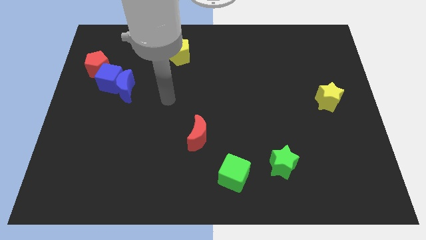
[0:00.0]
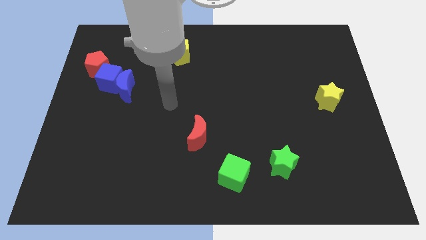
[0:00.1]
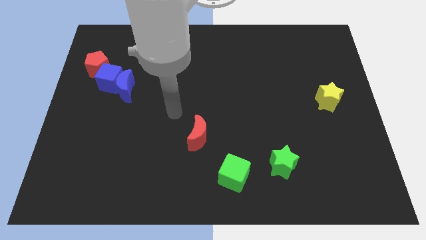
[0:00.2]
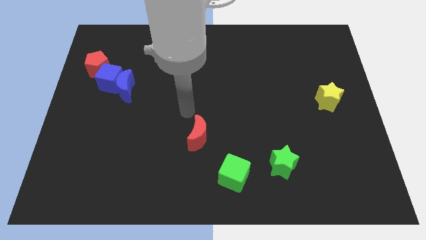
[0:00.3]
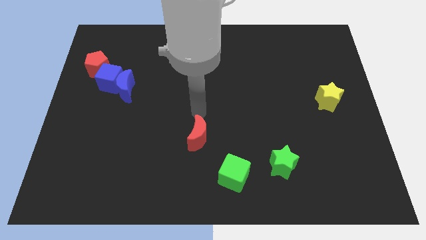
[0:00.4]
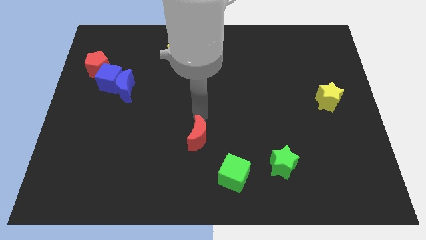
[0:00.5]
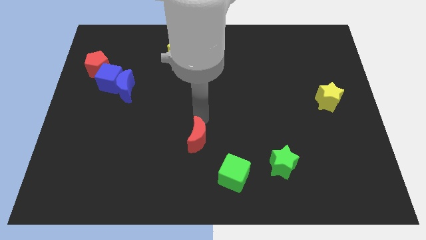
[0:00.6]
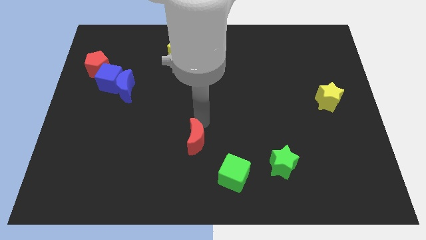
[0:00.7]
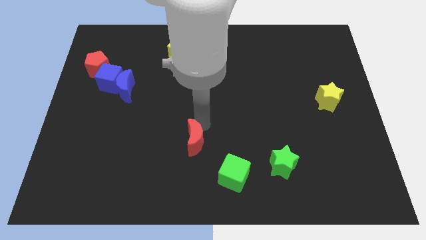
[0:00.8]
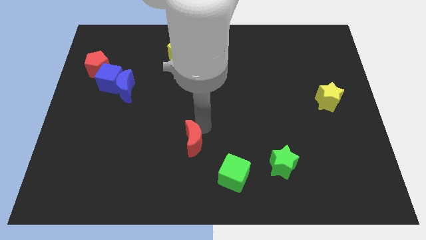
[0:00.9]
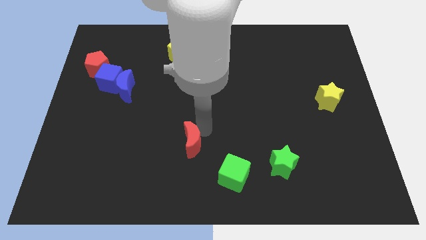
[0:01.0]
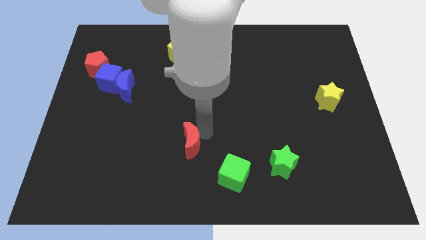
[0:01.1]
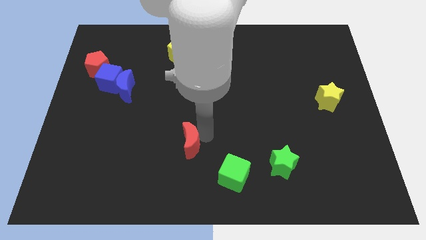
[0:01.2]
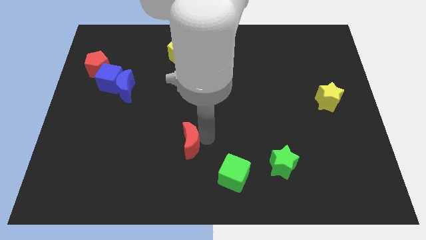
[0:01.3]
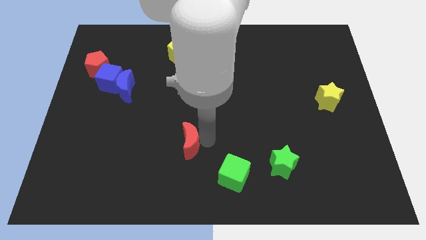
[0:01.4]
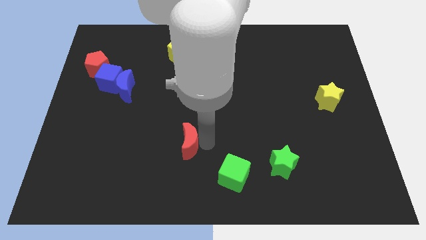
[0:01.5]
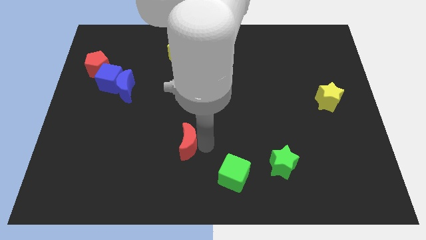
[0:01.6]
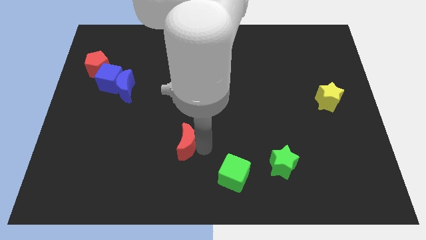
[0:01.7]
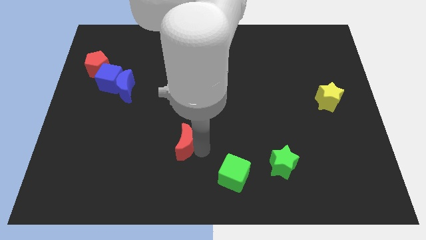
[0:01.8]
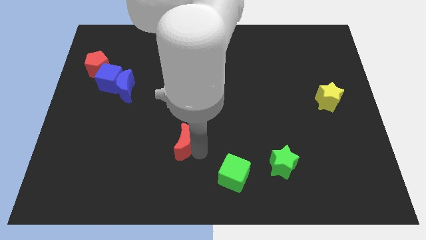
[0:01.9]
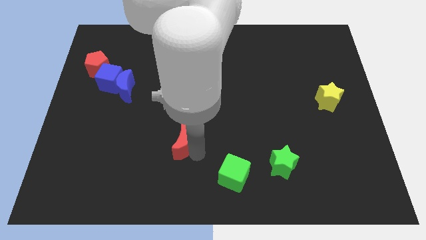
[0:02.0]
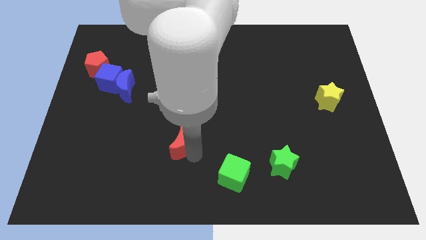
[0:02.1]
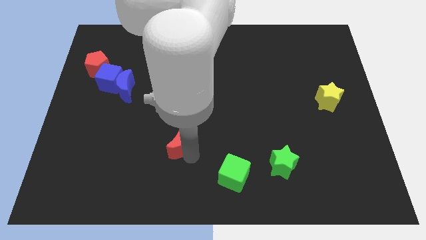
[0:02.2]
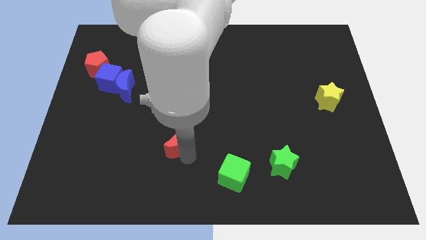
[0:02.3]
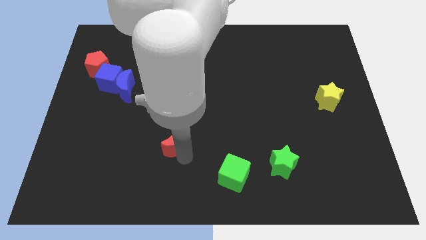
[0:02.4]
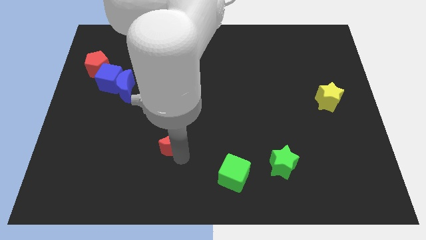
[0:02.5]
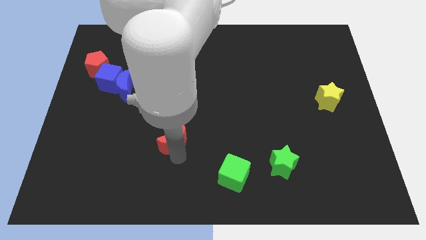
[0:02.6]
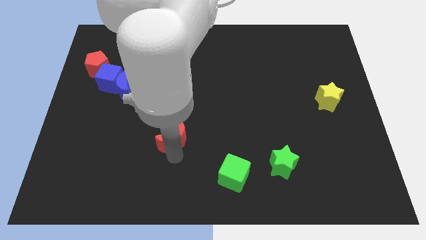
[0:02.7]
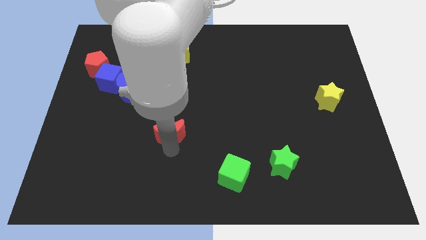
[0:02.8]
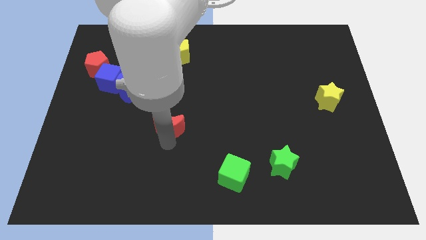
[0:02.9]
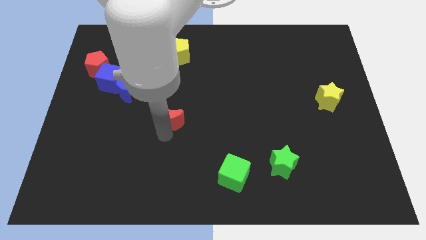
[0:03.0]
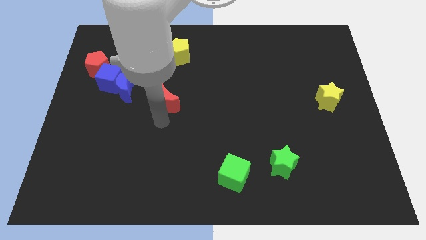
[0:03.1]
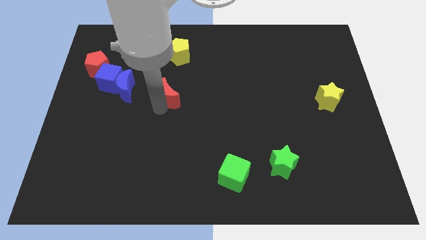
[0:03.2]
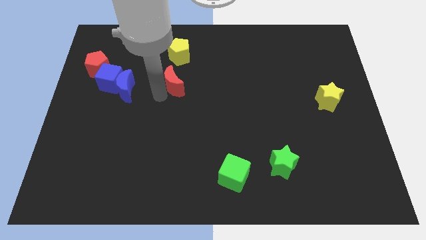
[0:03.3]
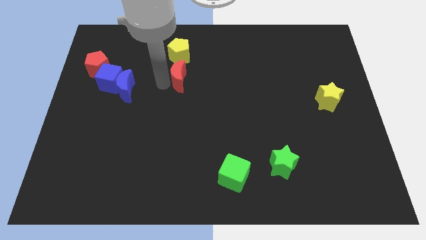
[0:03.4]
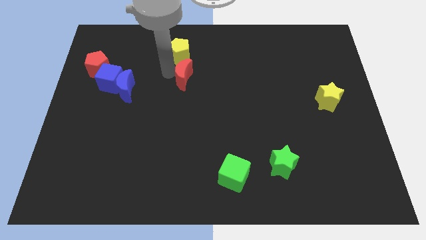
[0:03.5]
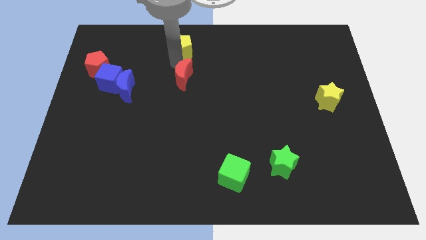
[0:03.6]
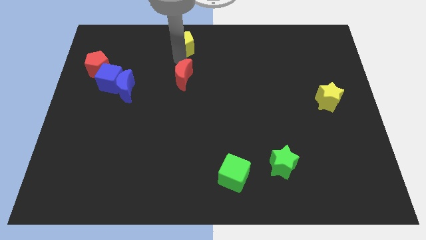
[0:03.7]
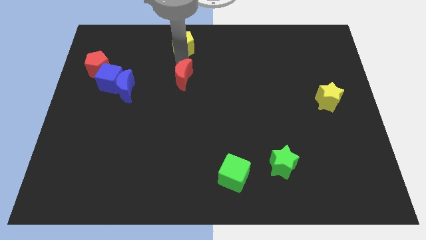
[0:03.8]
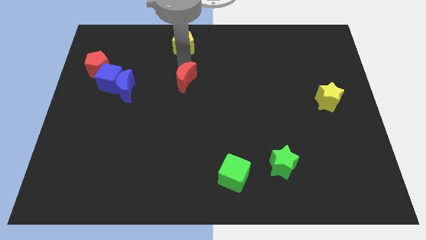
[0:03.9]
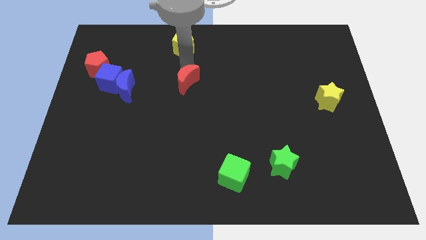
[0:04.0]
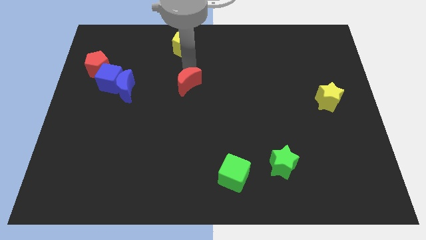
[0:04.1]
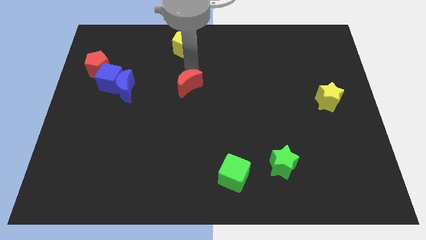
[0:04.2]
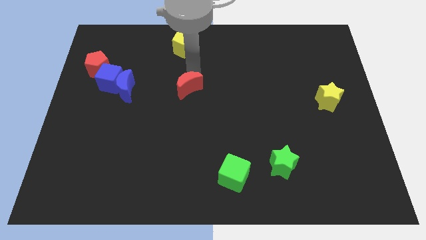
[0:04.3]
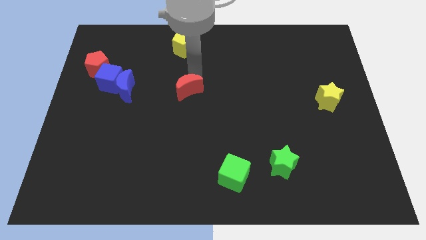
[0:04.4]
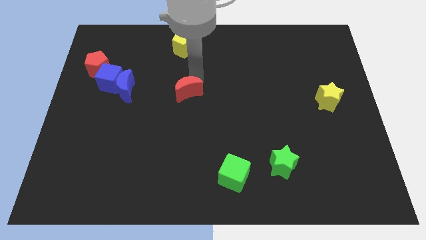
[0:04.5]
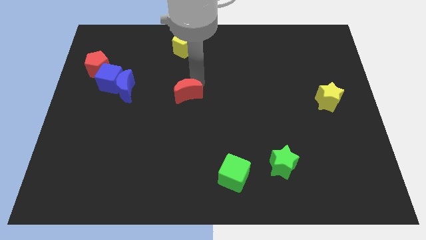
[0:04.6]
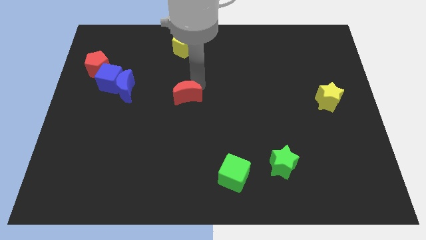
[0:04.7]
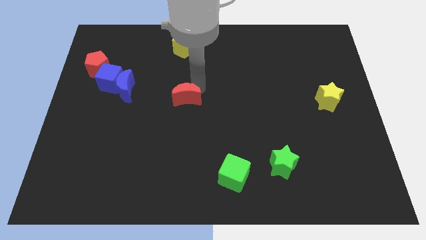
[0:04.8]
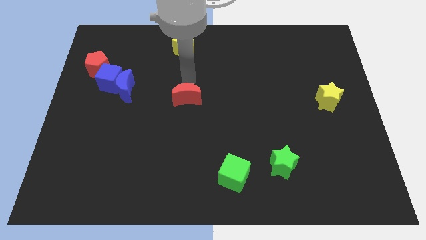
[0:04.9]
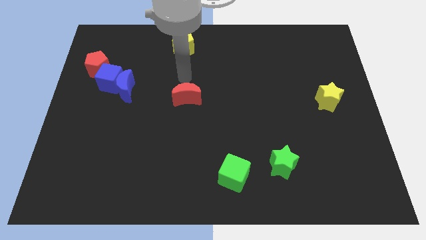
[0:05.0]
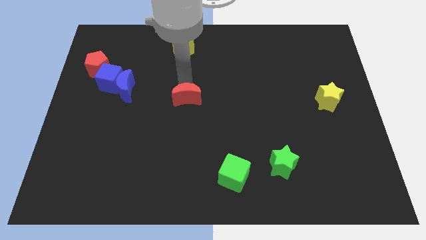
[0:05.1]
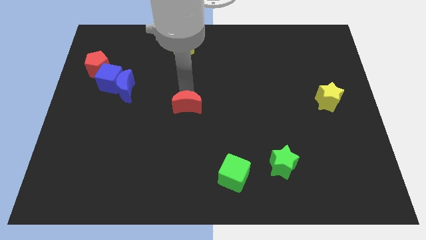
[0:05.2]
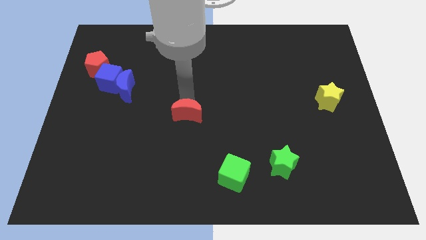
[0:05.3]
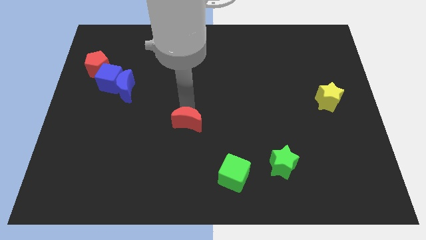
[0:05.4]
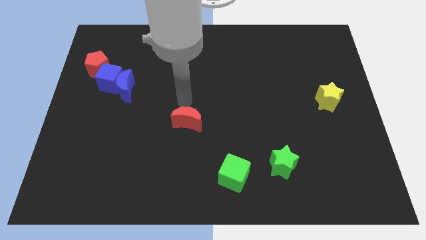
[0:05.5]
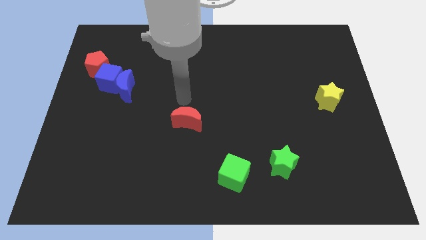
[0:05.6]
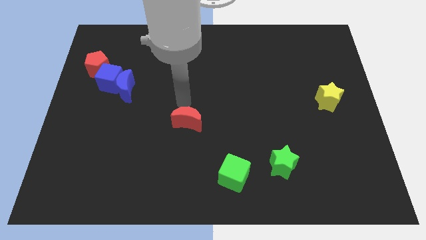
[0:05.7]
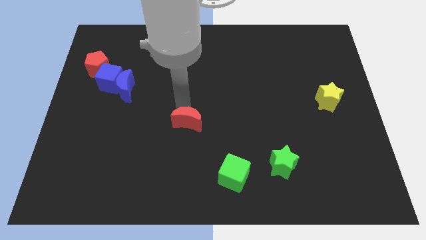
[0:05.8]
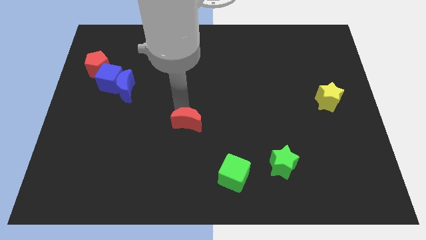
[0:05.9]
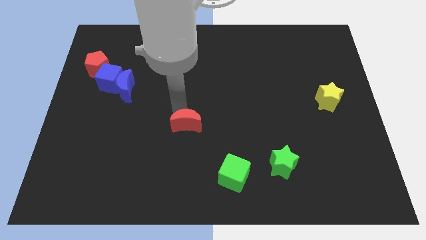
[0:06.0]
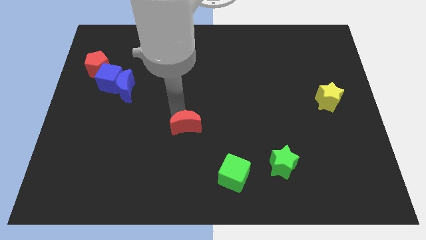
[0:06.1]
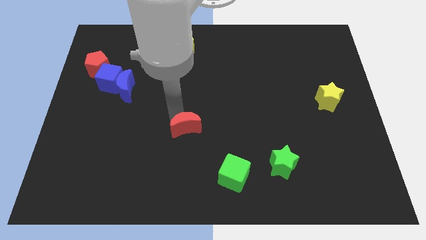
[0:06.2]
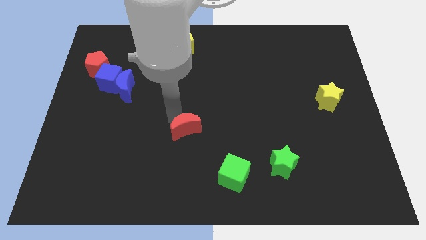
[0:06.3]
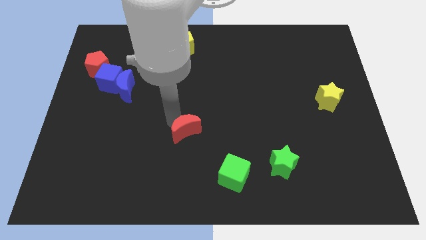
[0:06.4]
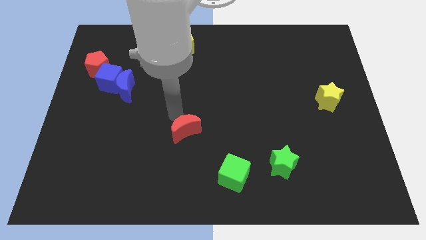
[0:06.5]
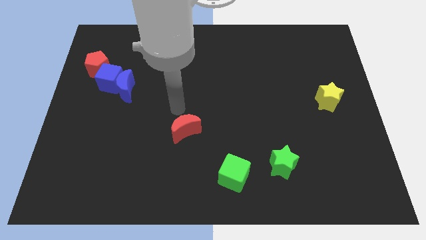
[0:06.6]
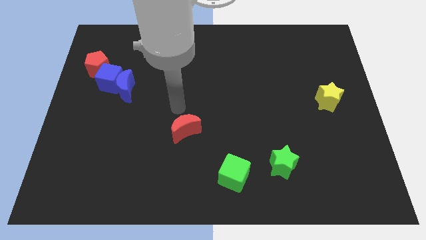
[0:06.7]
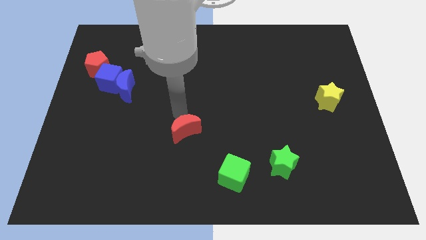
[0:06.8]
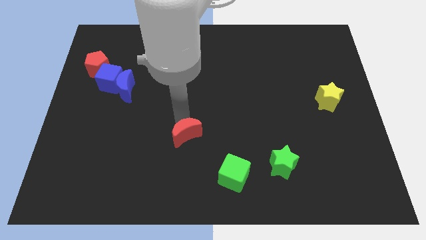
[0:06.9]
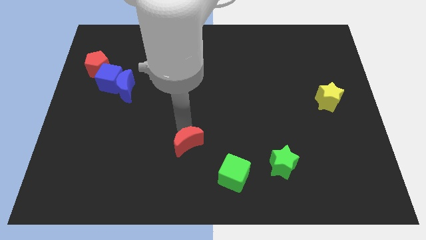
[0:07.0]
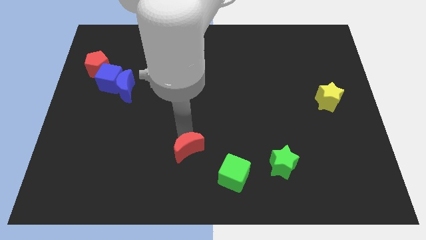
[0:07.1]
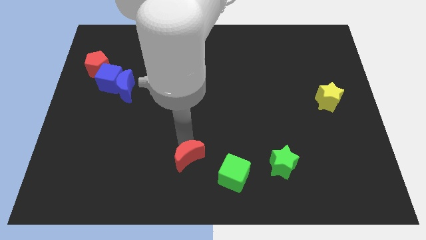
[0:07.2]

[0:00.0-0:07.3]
put the red moon to the bottom

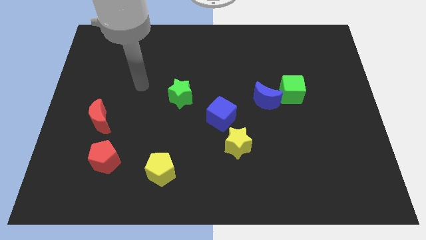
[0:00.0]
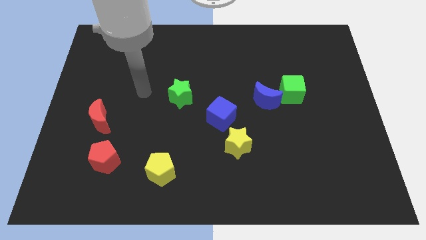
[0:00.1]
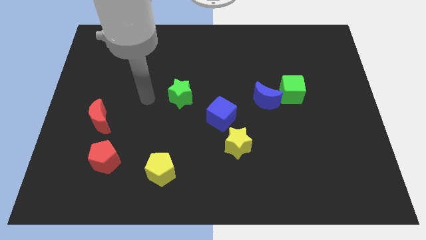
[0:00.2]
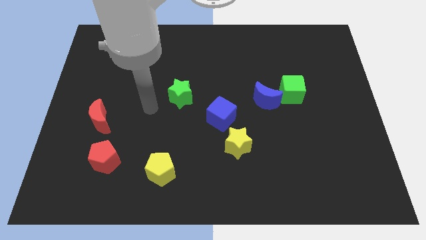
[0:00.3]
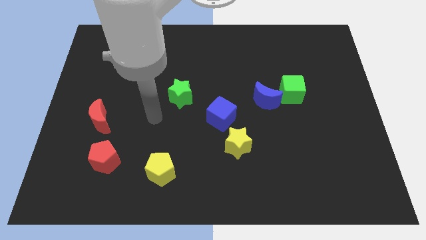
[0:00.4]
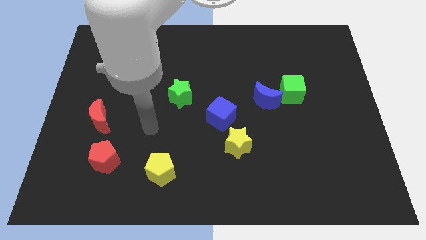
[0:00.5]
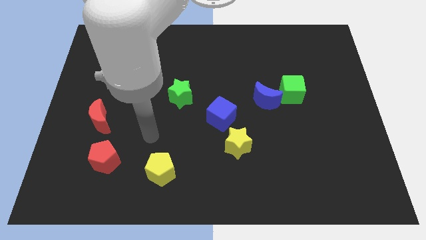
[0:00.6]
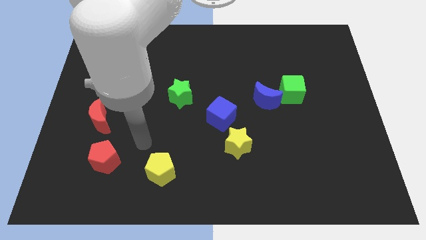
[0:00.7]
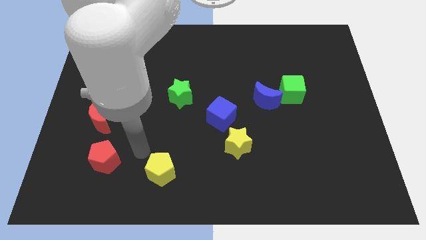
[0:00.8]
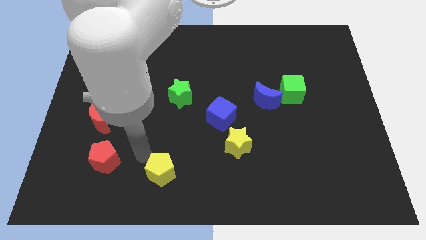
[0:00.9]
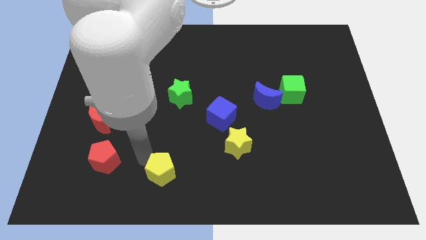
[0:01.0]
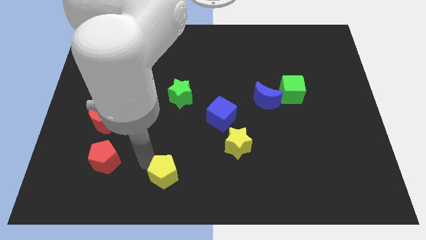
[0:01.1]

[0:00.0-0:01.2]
push the yellow pentagon to the bottom side
